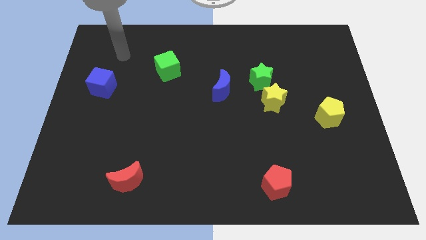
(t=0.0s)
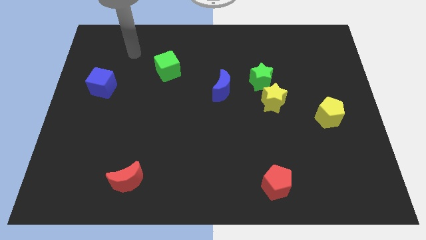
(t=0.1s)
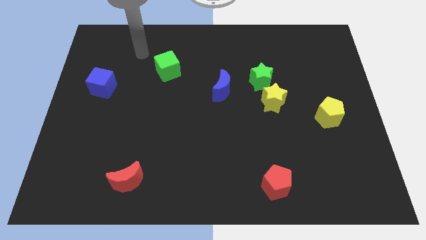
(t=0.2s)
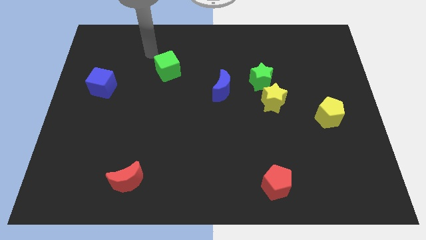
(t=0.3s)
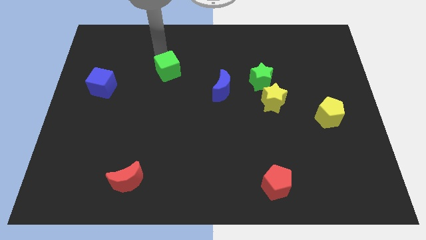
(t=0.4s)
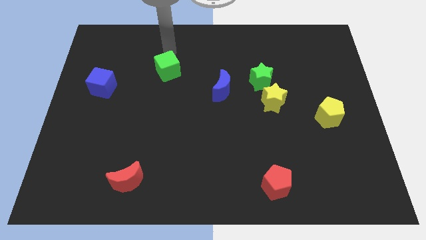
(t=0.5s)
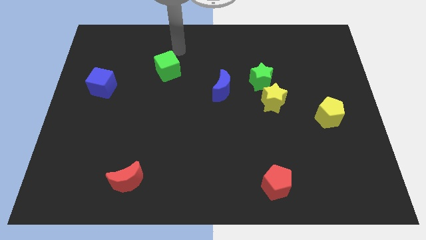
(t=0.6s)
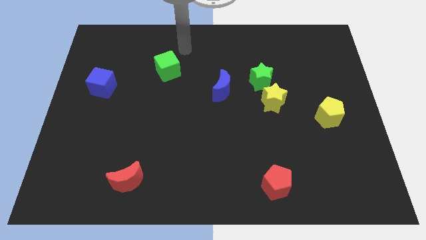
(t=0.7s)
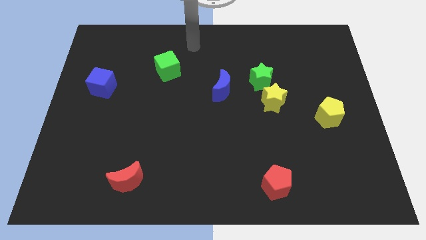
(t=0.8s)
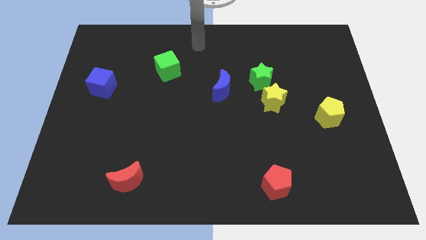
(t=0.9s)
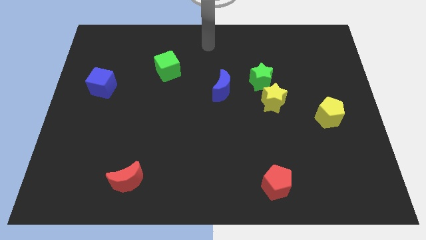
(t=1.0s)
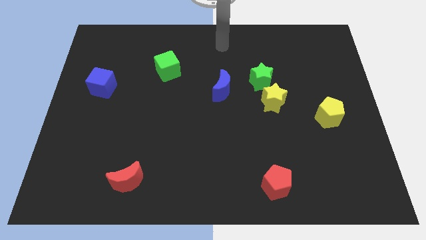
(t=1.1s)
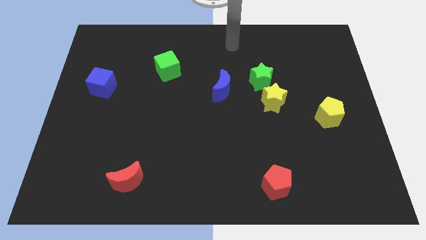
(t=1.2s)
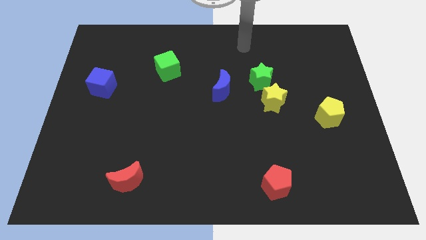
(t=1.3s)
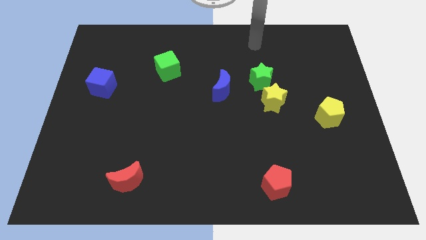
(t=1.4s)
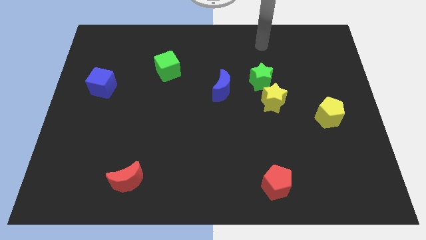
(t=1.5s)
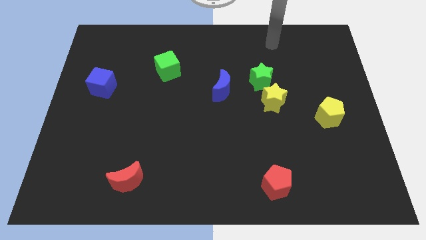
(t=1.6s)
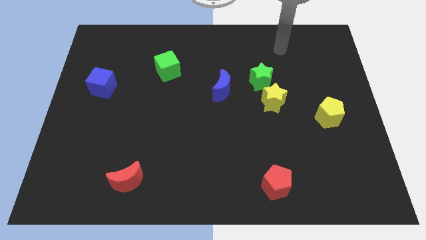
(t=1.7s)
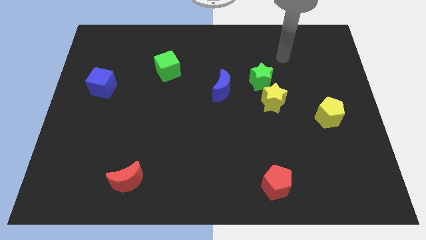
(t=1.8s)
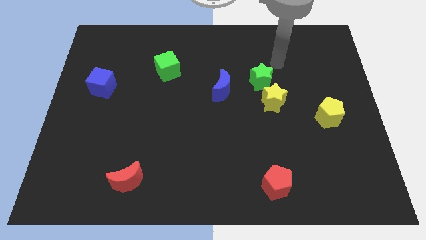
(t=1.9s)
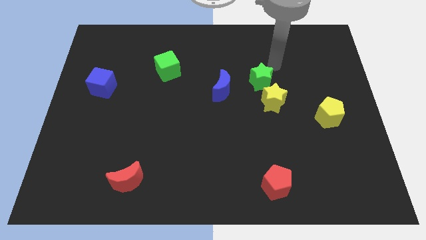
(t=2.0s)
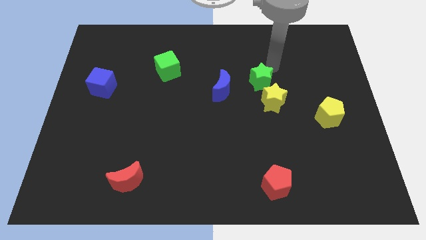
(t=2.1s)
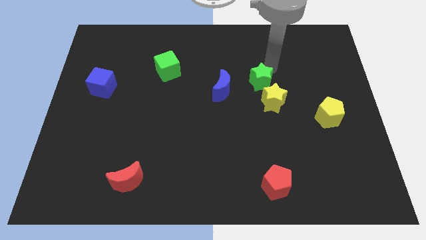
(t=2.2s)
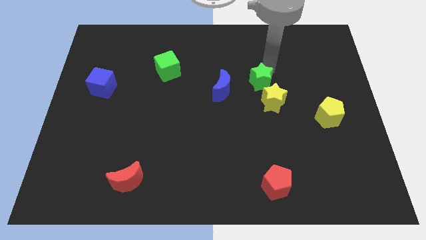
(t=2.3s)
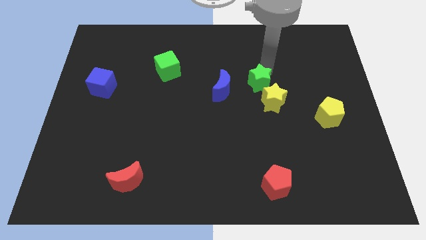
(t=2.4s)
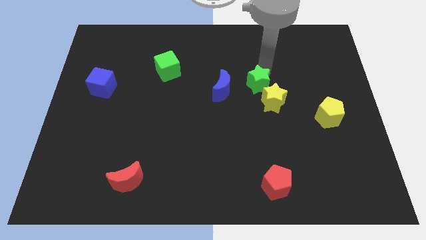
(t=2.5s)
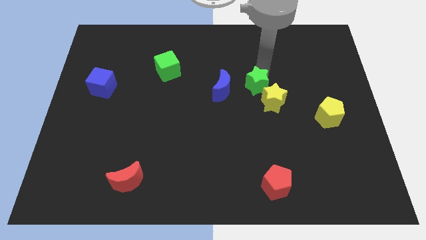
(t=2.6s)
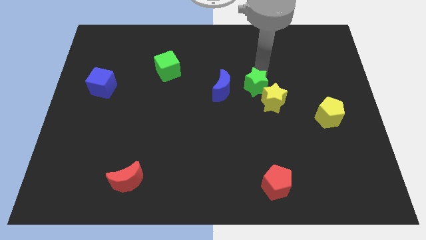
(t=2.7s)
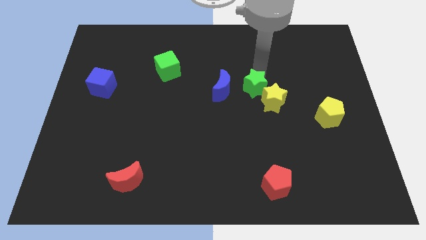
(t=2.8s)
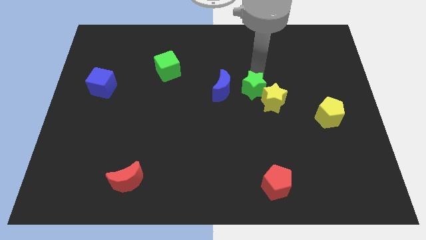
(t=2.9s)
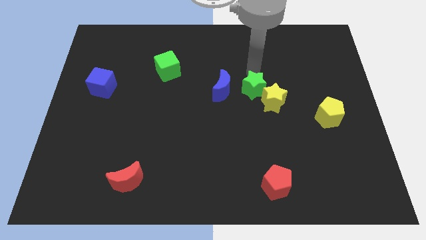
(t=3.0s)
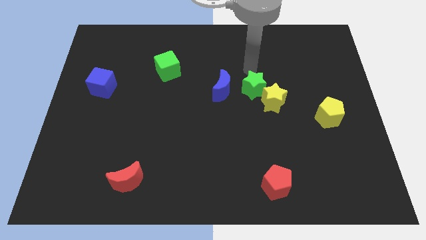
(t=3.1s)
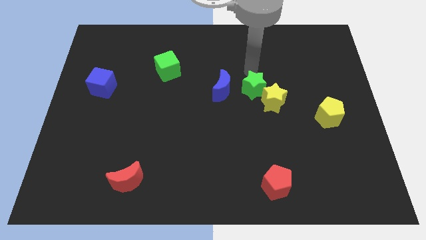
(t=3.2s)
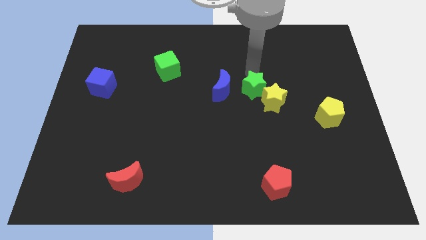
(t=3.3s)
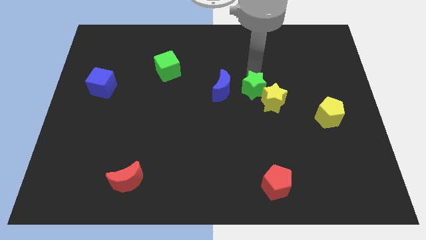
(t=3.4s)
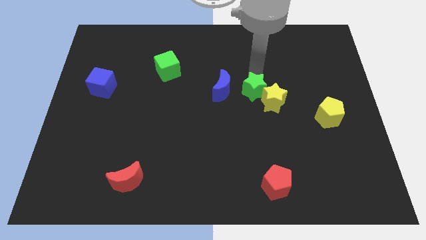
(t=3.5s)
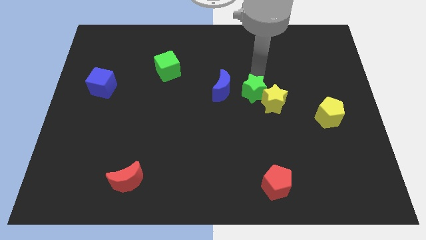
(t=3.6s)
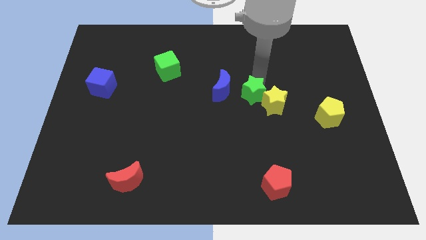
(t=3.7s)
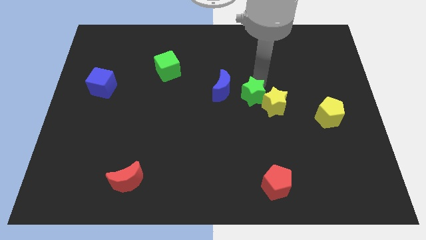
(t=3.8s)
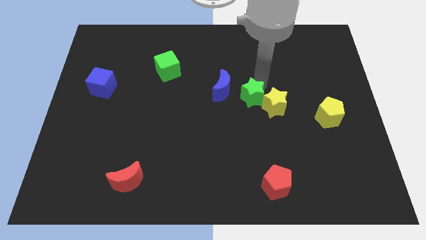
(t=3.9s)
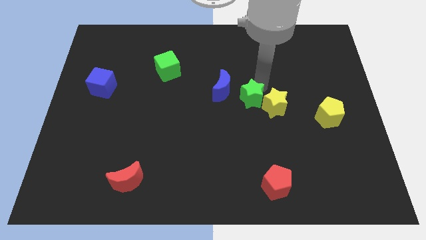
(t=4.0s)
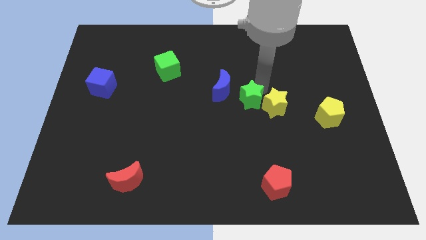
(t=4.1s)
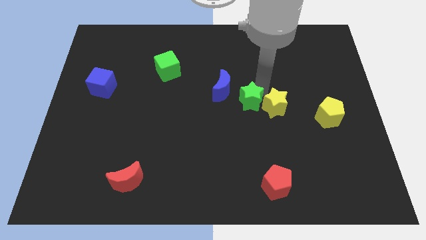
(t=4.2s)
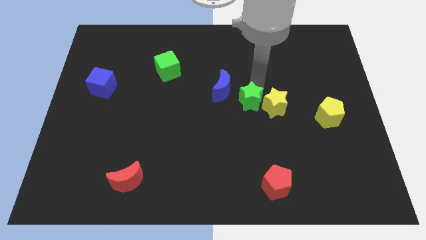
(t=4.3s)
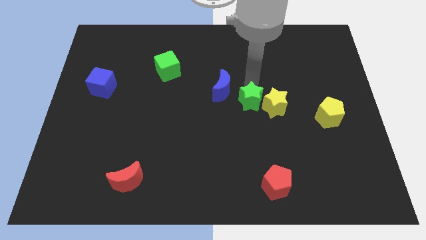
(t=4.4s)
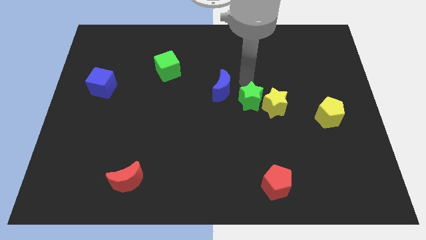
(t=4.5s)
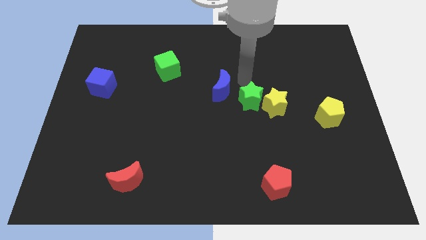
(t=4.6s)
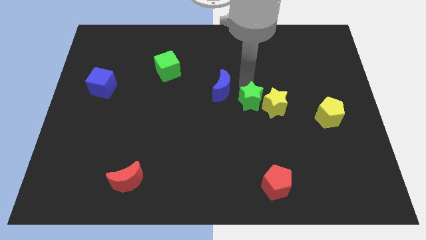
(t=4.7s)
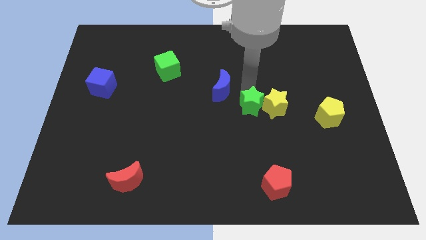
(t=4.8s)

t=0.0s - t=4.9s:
move the green star a bit down

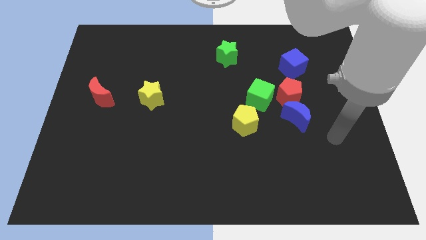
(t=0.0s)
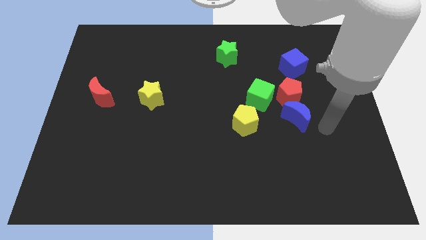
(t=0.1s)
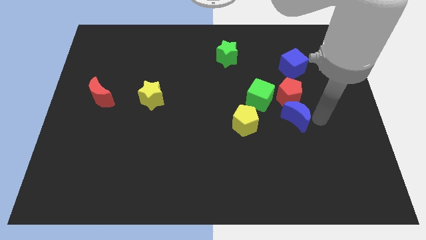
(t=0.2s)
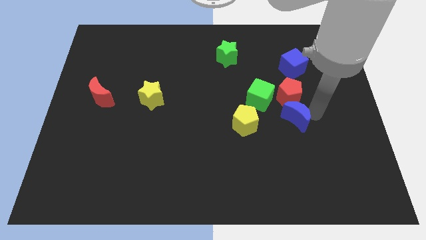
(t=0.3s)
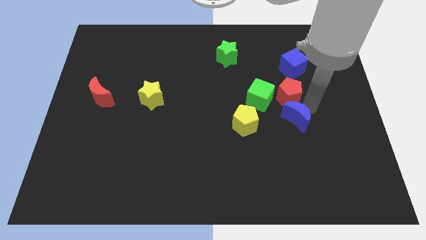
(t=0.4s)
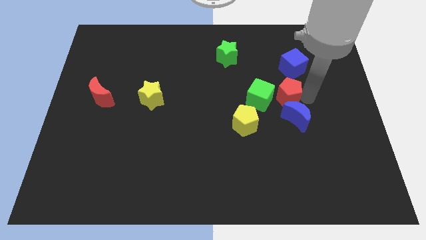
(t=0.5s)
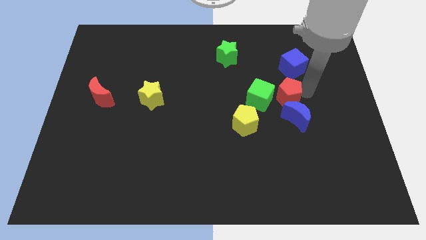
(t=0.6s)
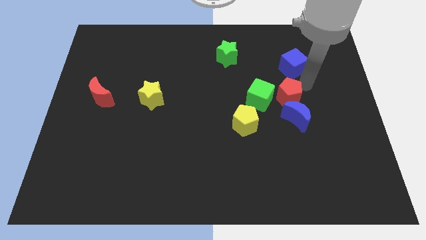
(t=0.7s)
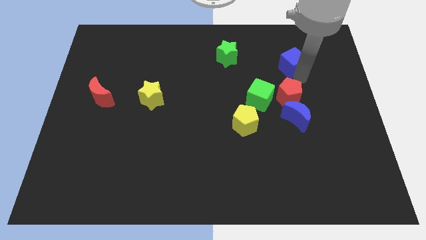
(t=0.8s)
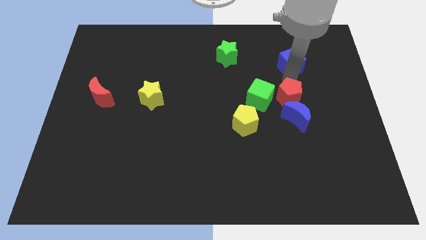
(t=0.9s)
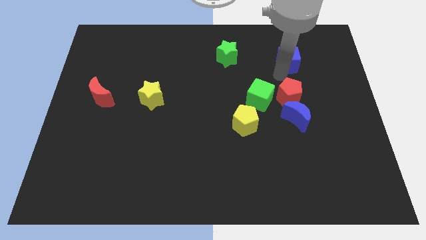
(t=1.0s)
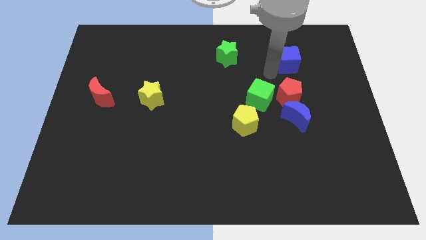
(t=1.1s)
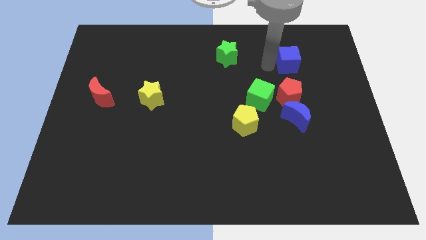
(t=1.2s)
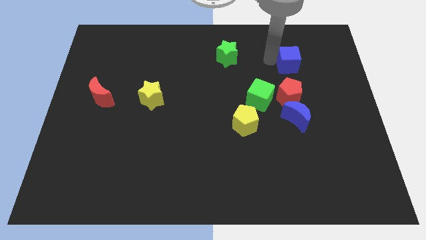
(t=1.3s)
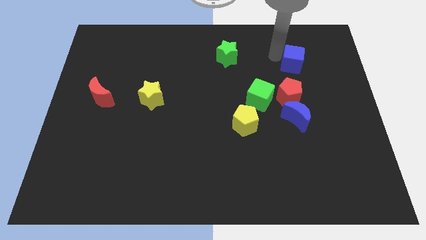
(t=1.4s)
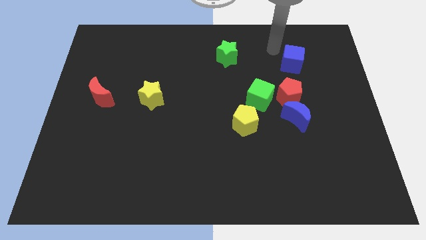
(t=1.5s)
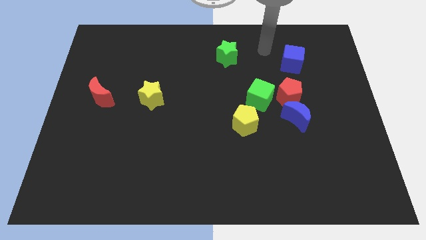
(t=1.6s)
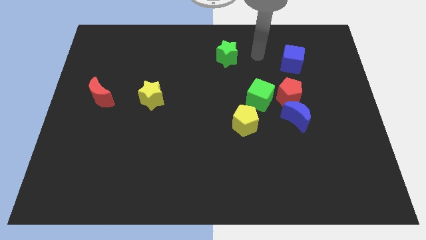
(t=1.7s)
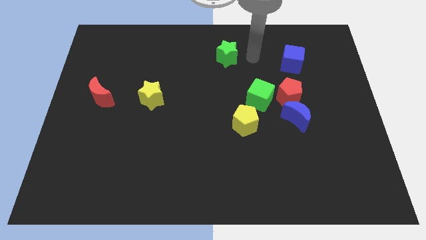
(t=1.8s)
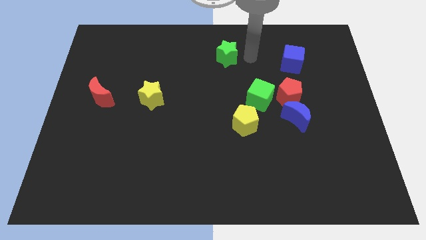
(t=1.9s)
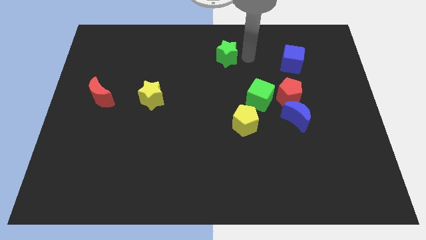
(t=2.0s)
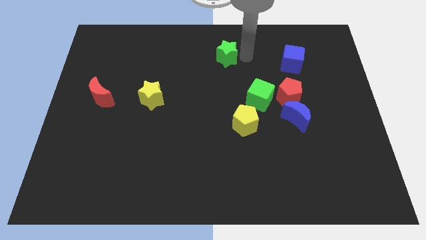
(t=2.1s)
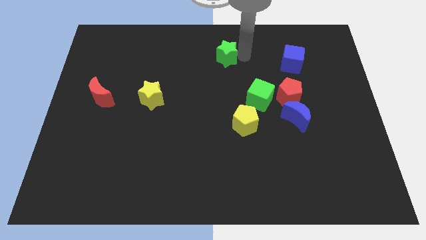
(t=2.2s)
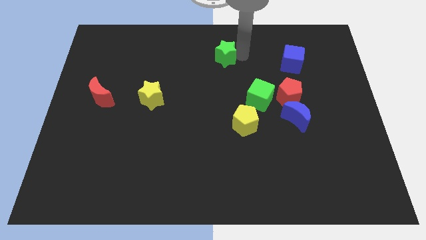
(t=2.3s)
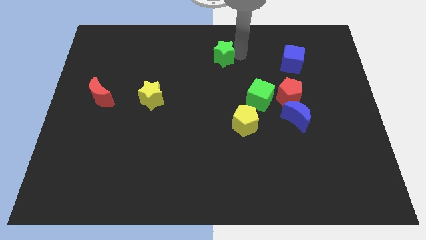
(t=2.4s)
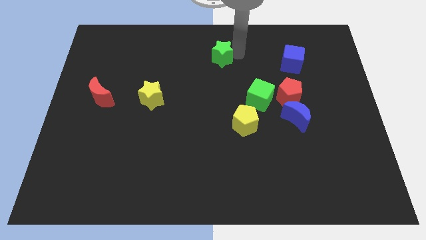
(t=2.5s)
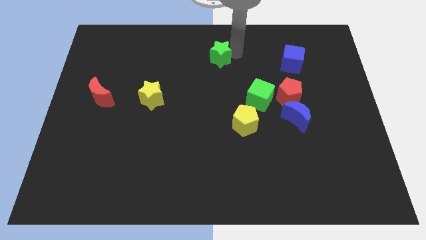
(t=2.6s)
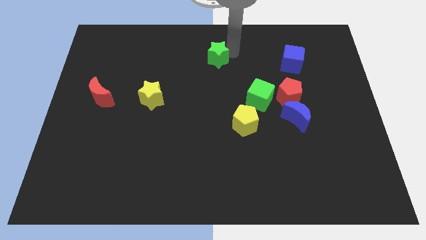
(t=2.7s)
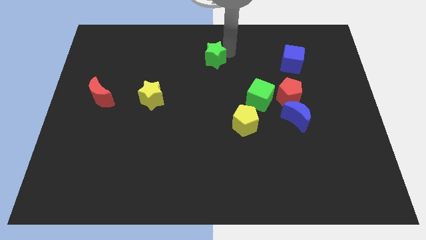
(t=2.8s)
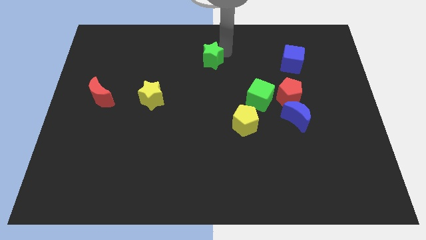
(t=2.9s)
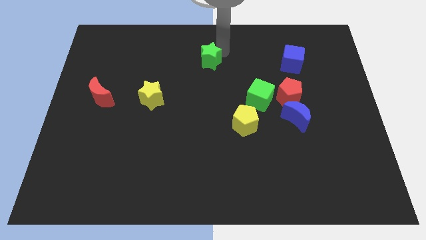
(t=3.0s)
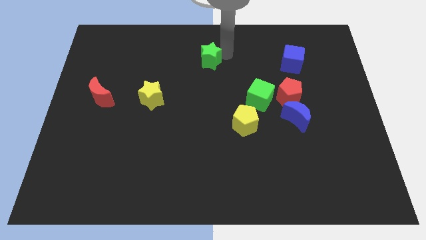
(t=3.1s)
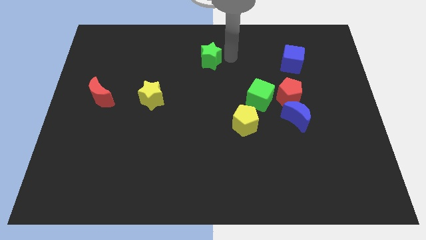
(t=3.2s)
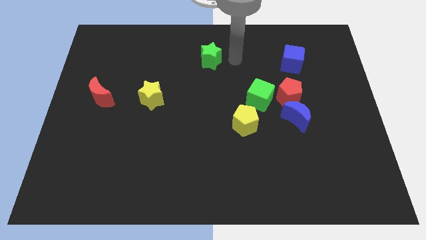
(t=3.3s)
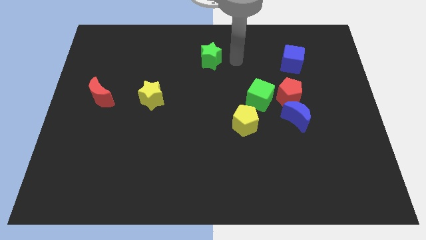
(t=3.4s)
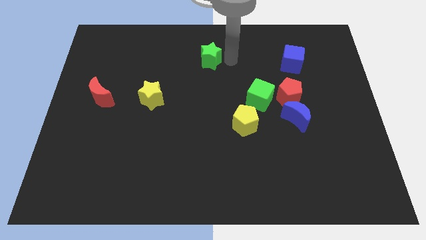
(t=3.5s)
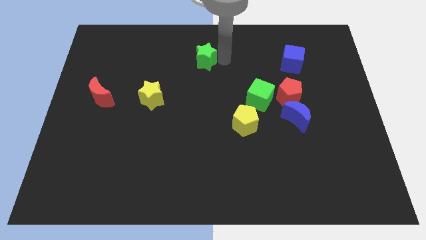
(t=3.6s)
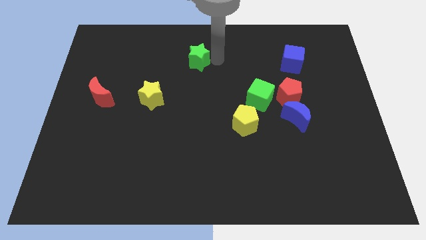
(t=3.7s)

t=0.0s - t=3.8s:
slide the green star a little to the left
